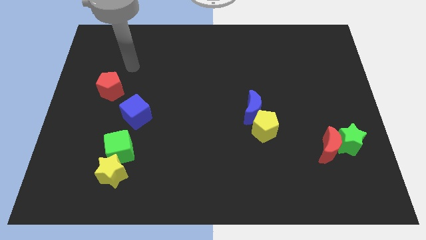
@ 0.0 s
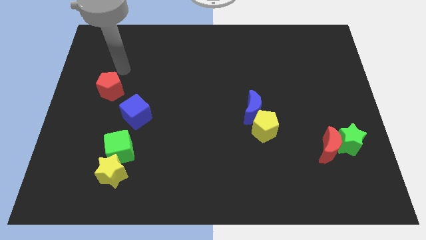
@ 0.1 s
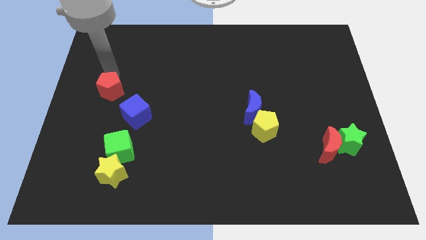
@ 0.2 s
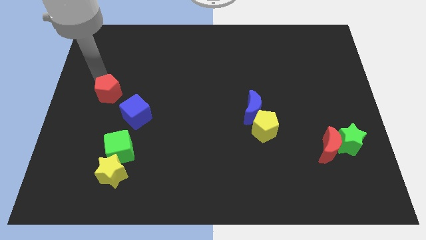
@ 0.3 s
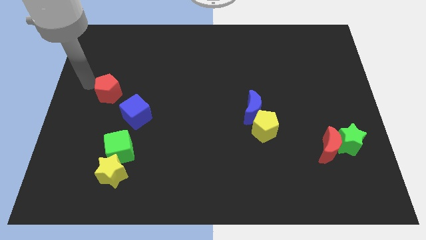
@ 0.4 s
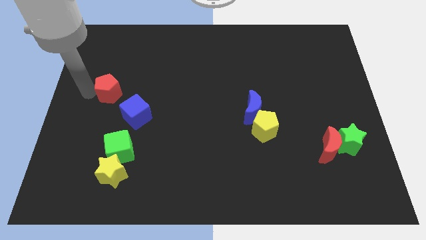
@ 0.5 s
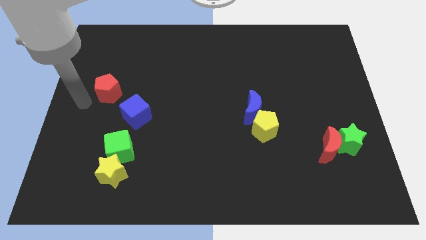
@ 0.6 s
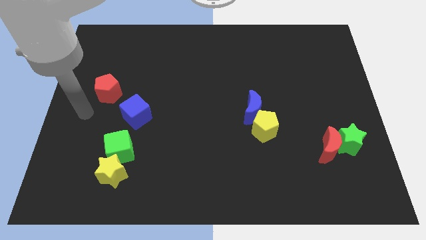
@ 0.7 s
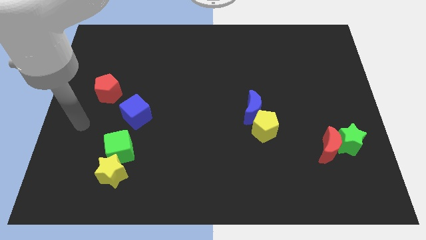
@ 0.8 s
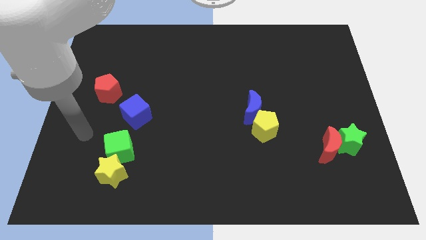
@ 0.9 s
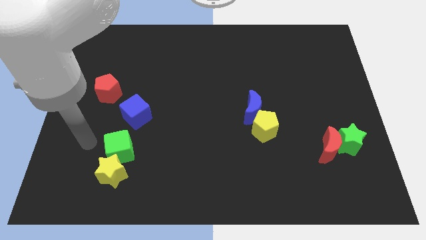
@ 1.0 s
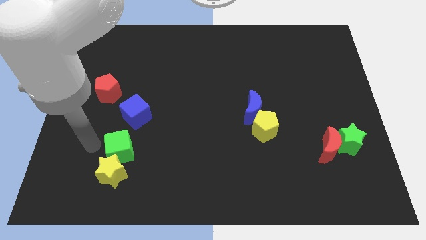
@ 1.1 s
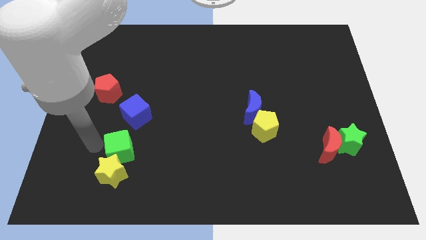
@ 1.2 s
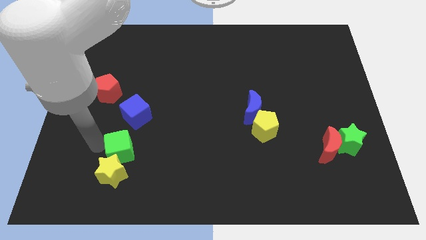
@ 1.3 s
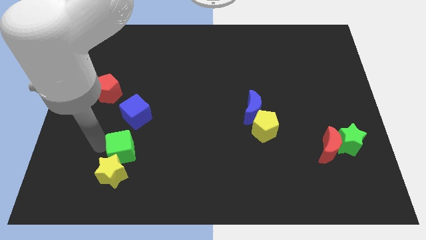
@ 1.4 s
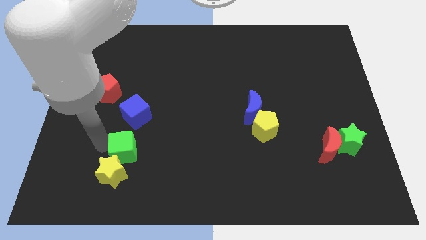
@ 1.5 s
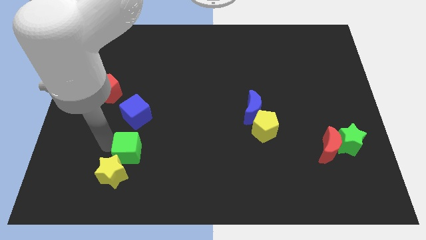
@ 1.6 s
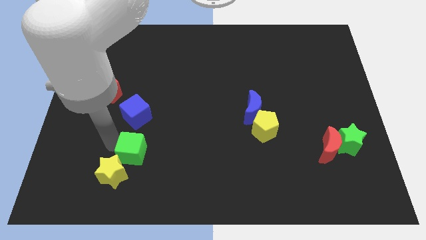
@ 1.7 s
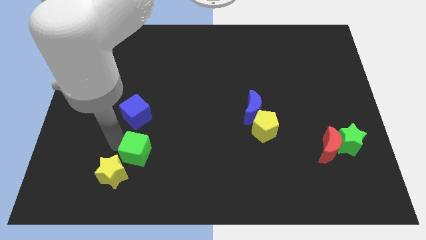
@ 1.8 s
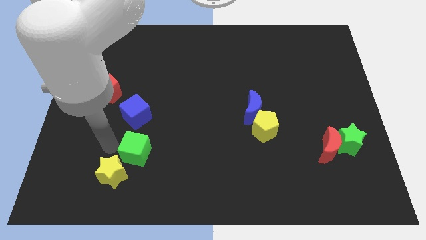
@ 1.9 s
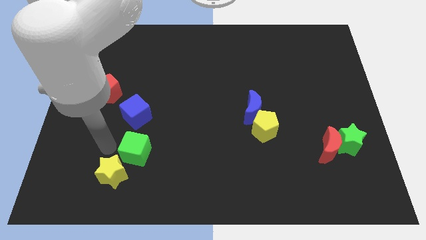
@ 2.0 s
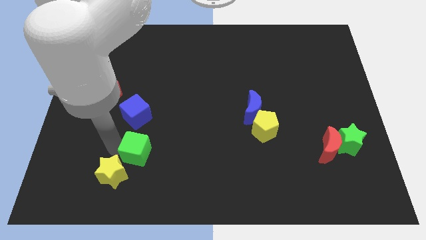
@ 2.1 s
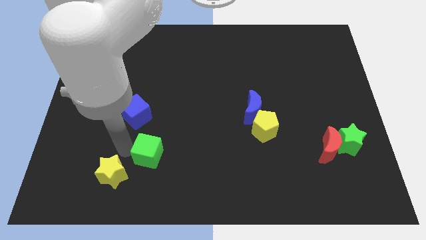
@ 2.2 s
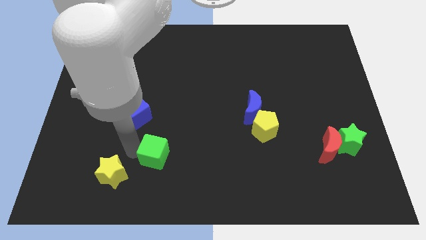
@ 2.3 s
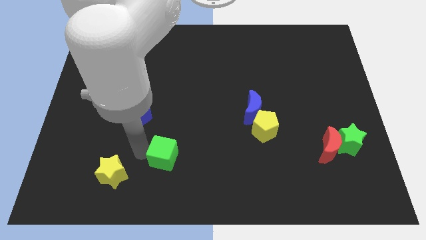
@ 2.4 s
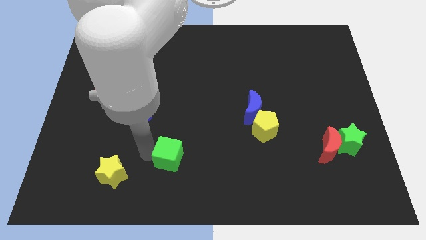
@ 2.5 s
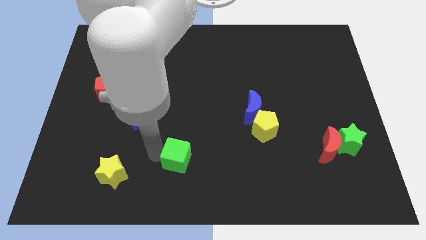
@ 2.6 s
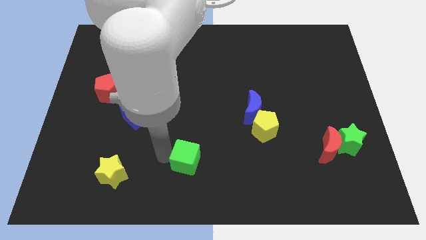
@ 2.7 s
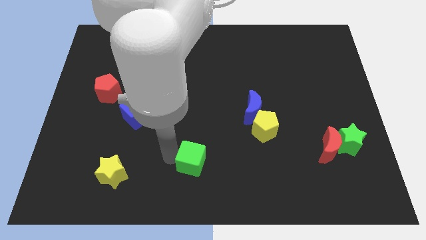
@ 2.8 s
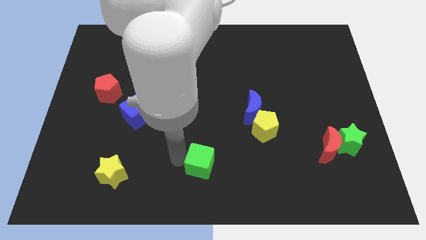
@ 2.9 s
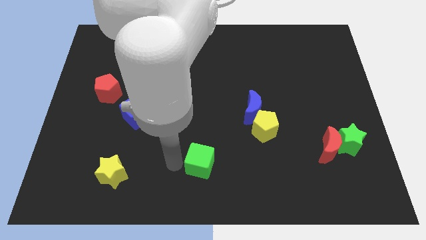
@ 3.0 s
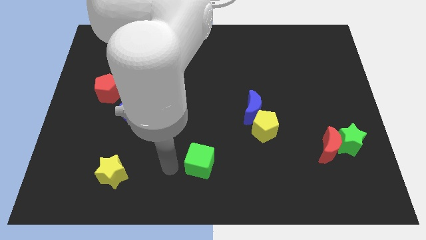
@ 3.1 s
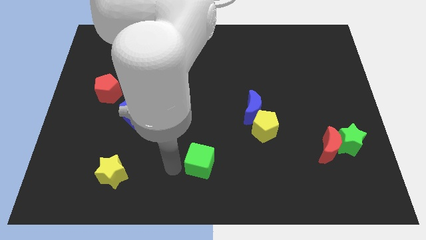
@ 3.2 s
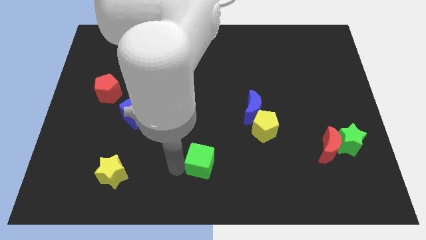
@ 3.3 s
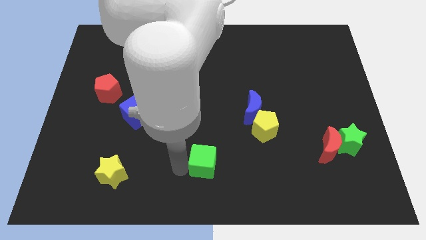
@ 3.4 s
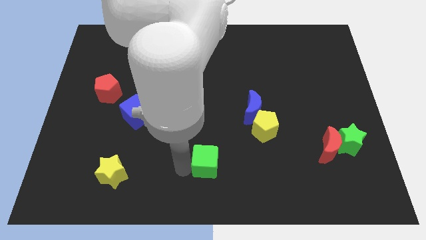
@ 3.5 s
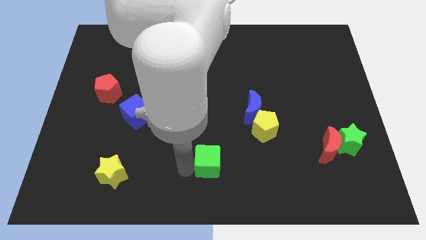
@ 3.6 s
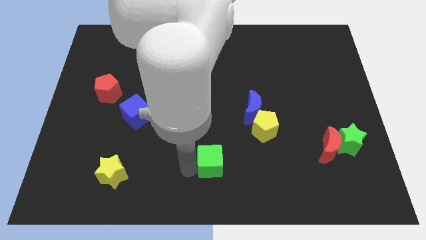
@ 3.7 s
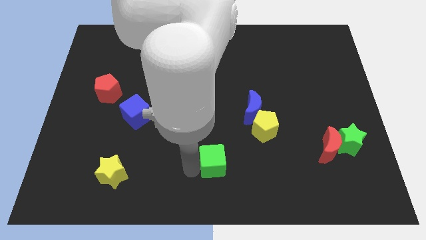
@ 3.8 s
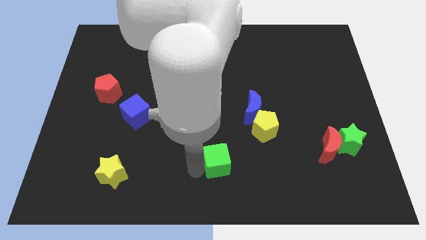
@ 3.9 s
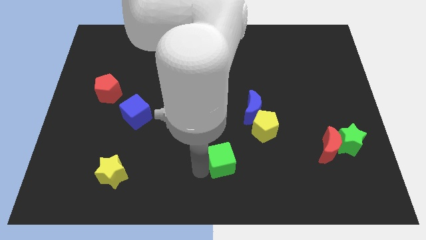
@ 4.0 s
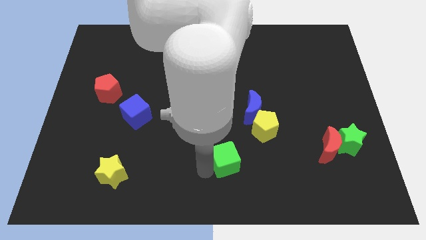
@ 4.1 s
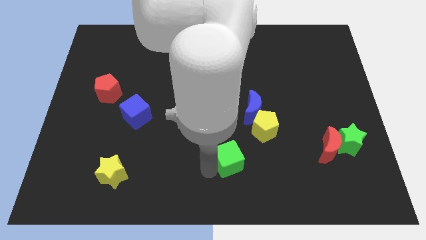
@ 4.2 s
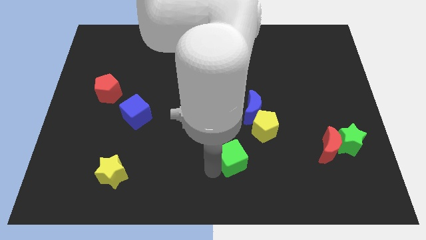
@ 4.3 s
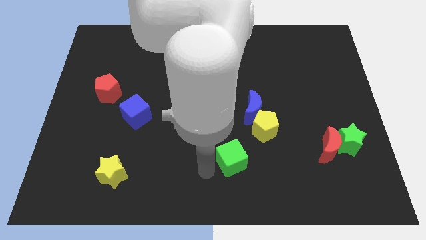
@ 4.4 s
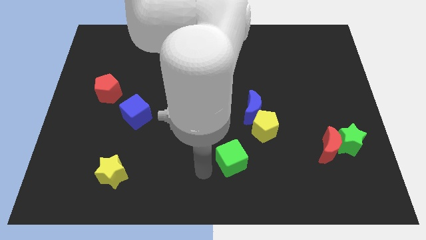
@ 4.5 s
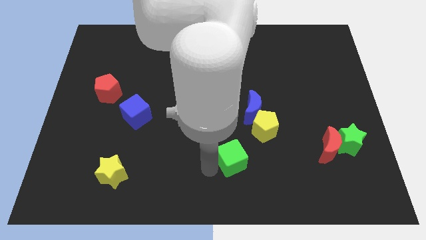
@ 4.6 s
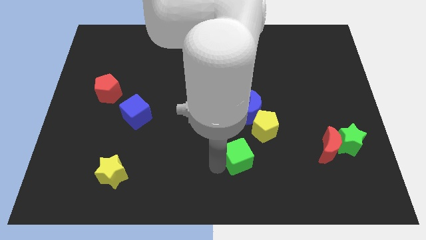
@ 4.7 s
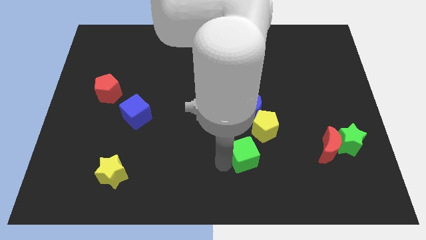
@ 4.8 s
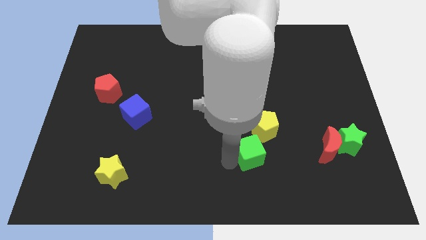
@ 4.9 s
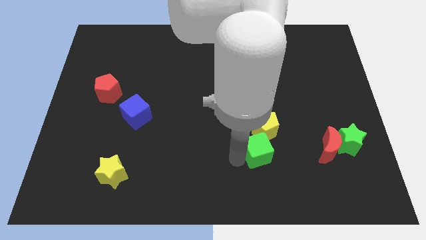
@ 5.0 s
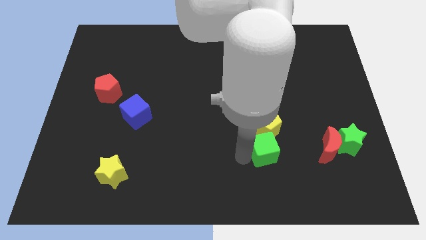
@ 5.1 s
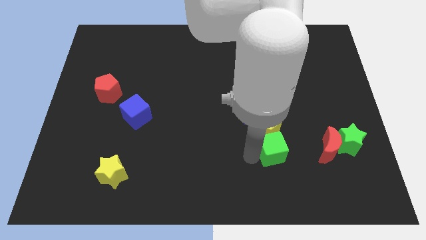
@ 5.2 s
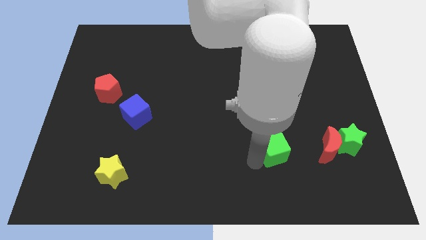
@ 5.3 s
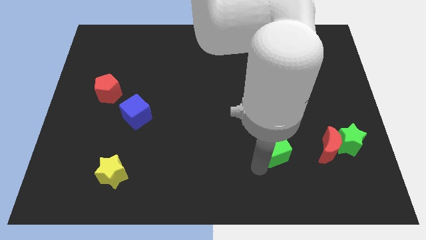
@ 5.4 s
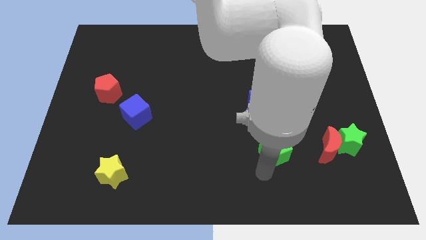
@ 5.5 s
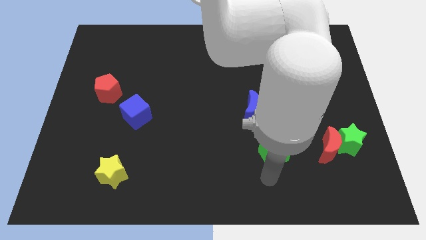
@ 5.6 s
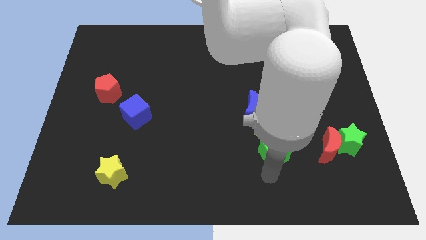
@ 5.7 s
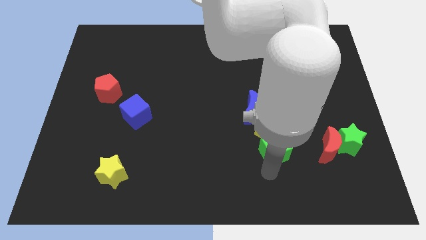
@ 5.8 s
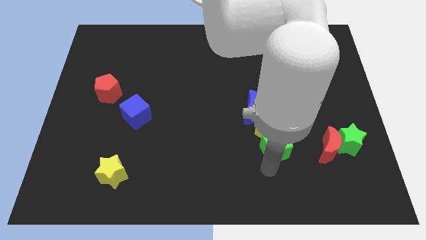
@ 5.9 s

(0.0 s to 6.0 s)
move the green cube diagonally down and to the right of the blue moon
